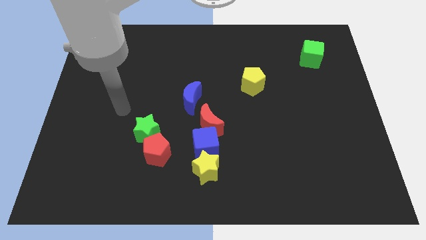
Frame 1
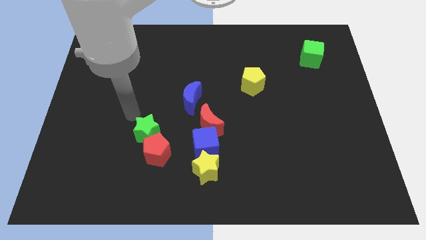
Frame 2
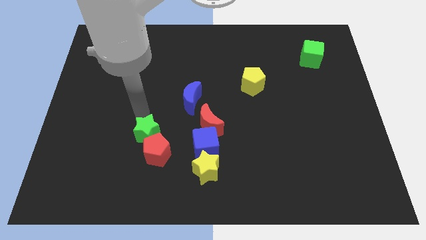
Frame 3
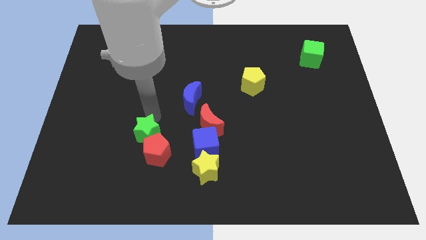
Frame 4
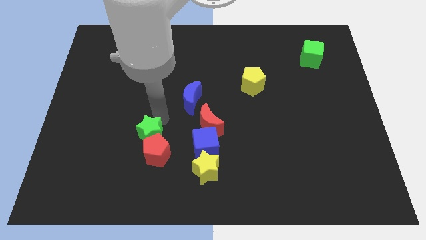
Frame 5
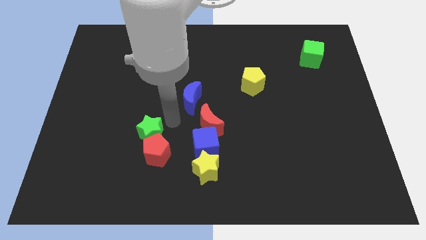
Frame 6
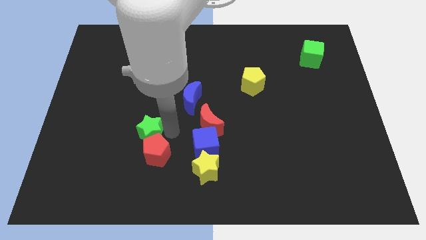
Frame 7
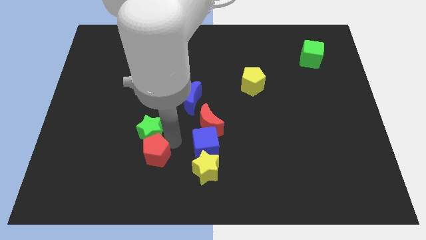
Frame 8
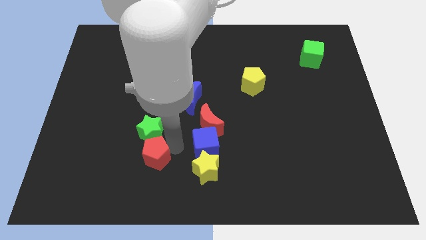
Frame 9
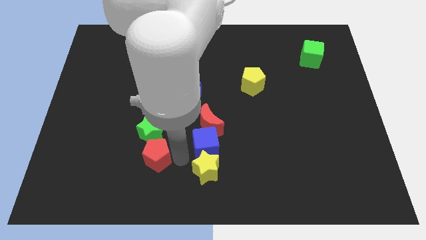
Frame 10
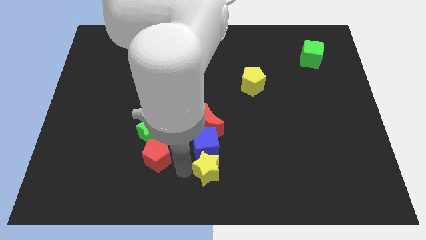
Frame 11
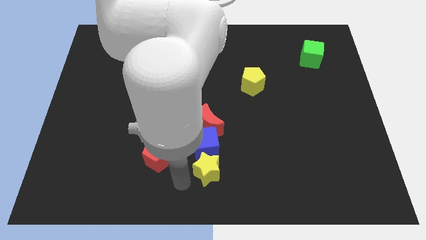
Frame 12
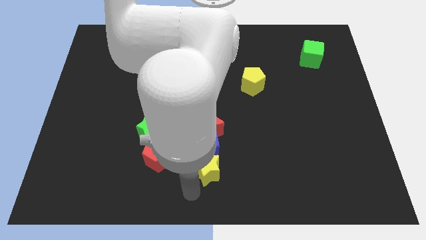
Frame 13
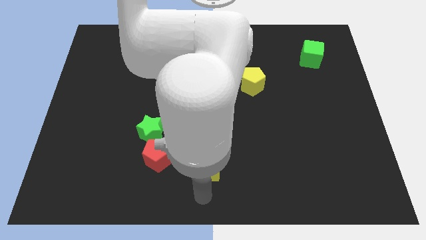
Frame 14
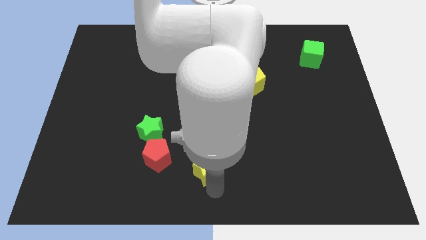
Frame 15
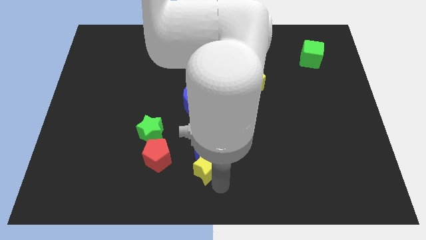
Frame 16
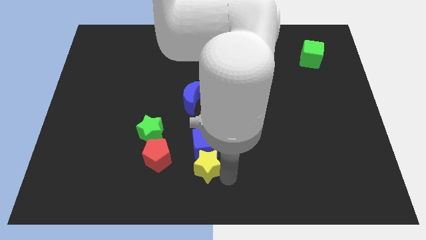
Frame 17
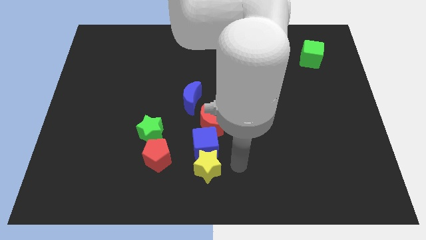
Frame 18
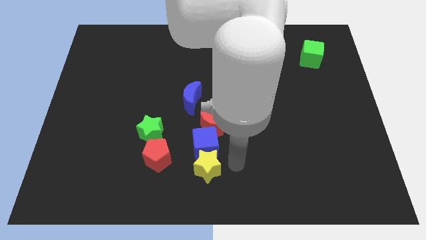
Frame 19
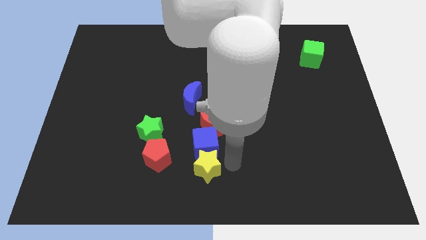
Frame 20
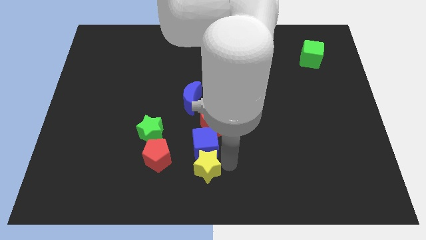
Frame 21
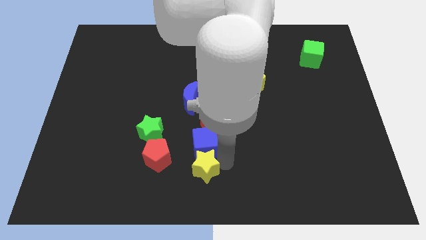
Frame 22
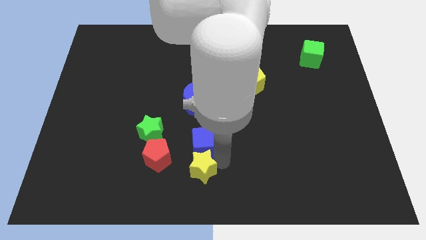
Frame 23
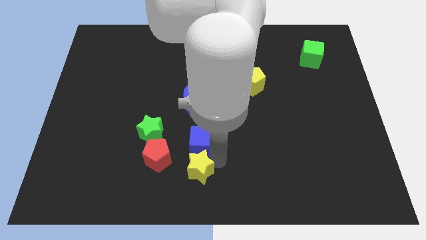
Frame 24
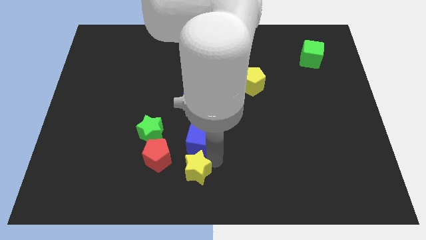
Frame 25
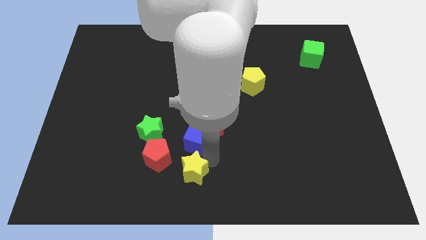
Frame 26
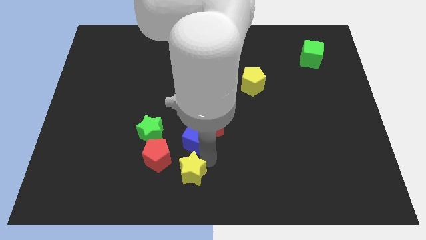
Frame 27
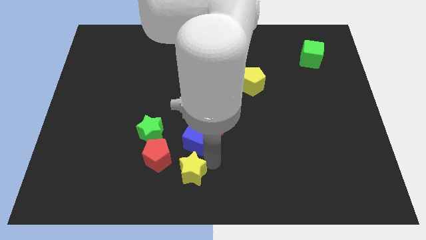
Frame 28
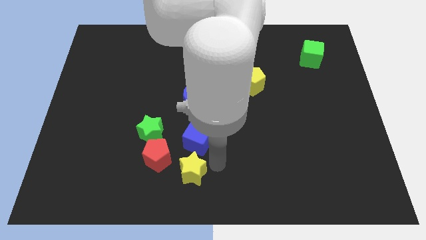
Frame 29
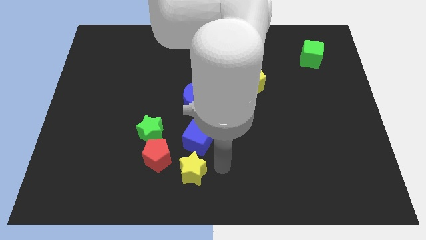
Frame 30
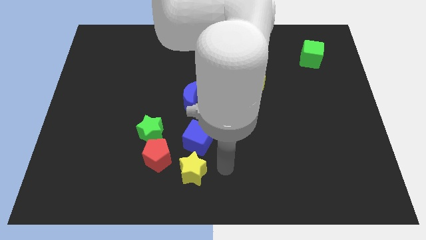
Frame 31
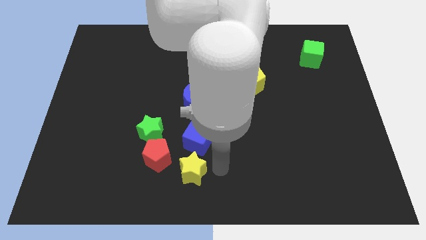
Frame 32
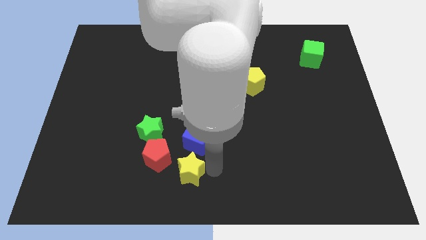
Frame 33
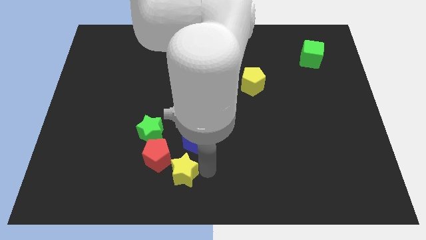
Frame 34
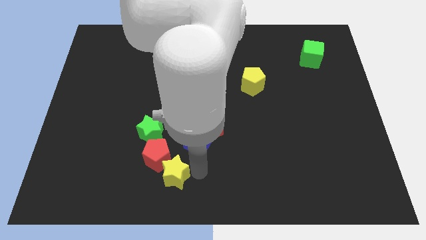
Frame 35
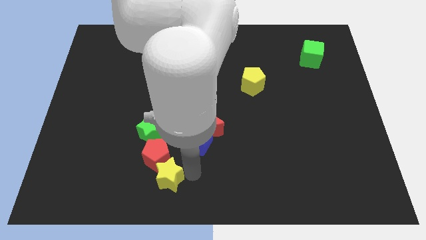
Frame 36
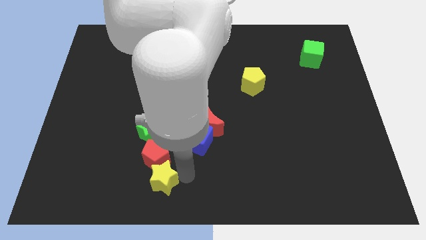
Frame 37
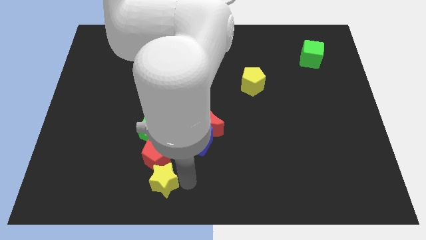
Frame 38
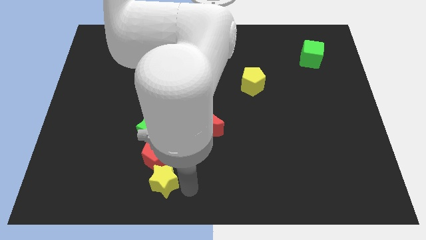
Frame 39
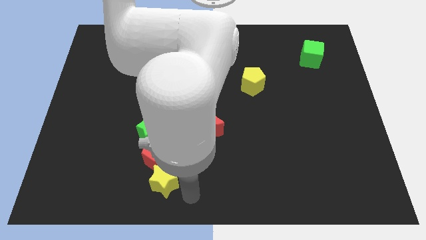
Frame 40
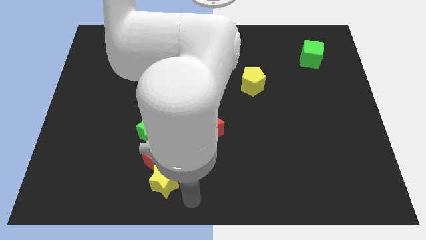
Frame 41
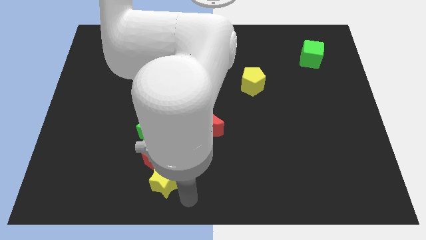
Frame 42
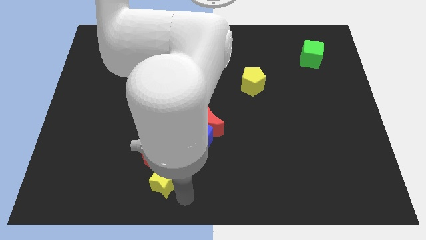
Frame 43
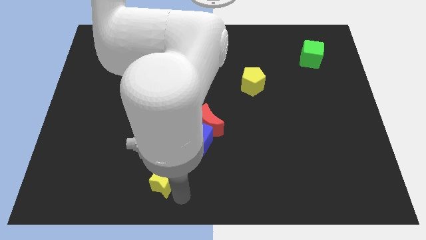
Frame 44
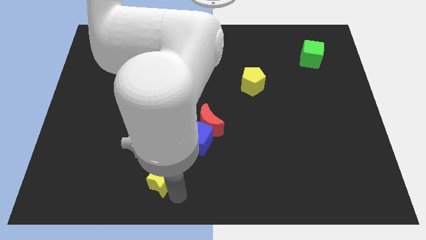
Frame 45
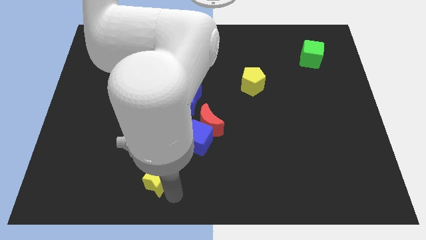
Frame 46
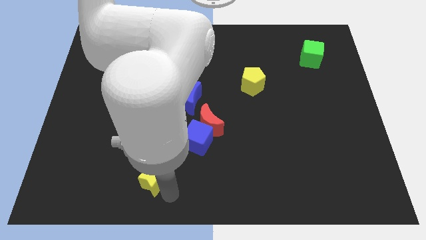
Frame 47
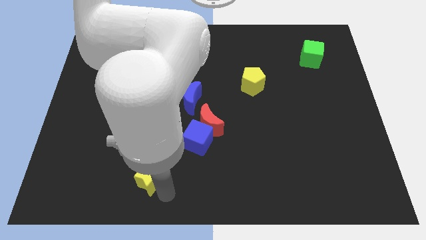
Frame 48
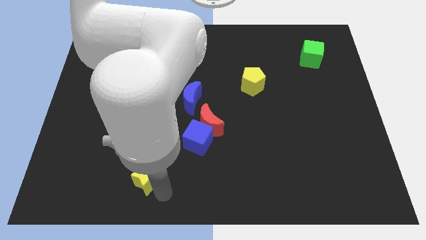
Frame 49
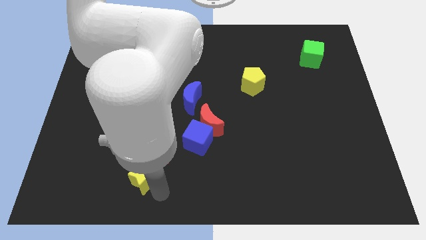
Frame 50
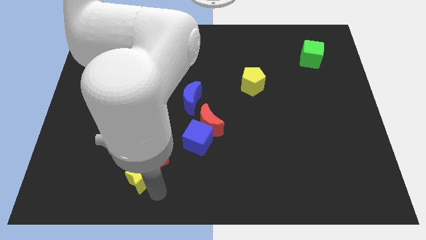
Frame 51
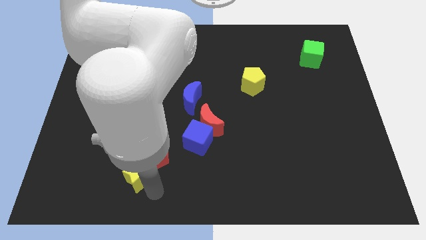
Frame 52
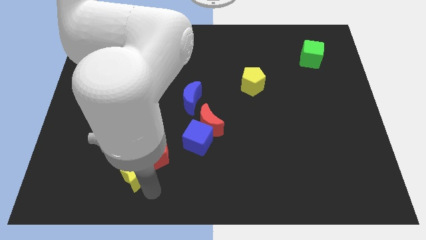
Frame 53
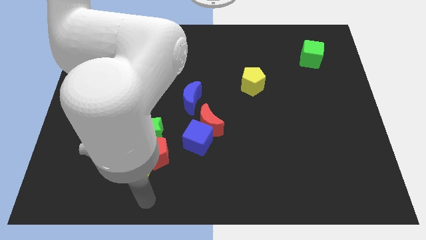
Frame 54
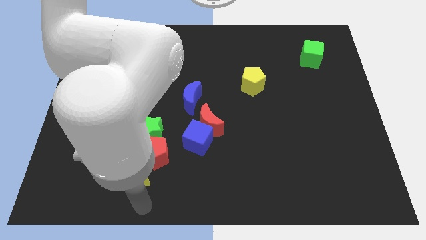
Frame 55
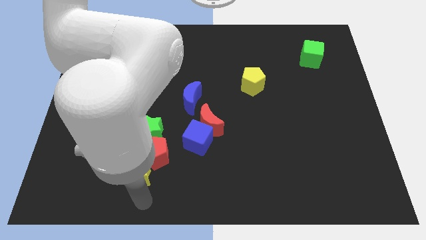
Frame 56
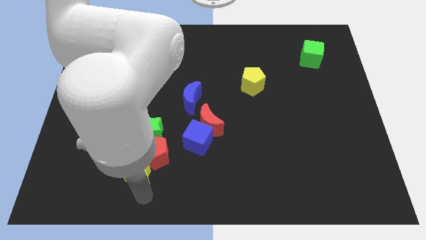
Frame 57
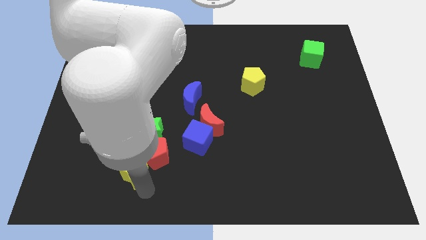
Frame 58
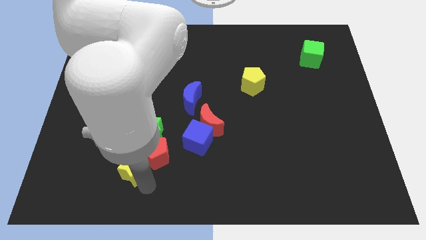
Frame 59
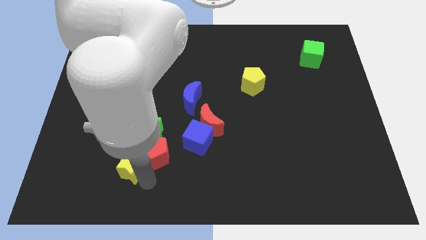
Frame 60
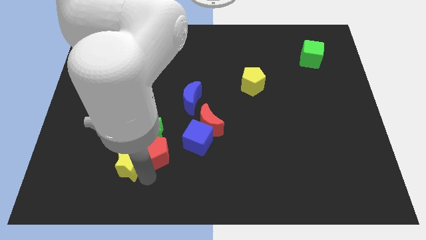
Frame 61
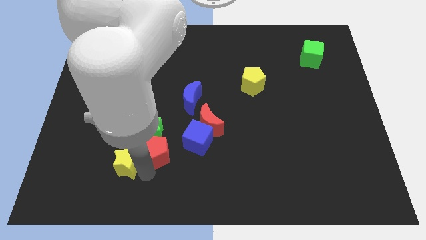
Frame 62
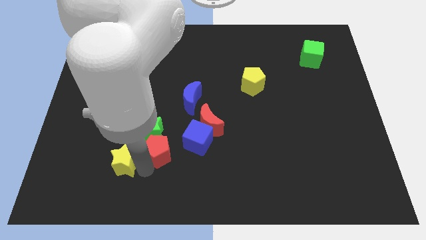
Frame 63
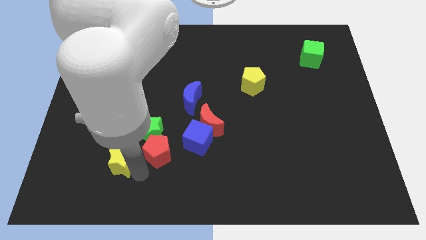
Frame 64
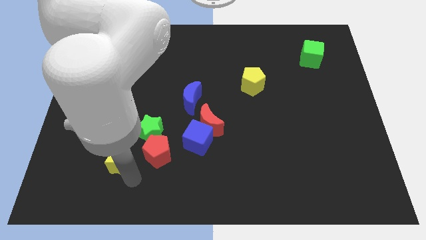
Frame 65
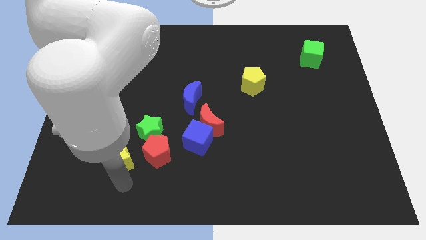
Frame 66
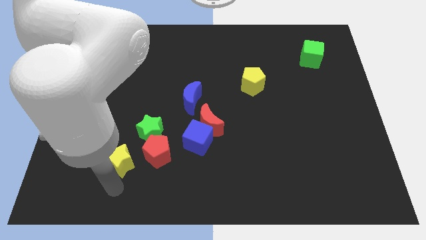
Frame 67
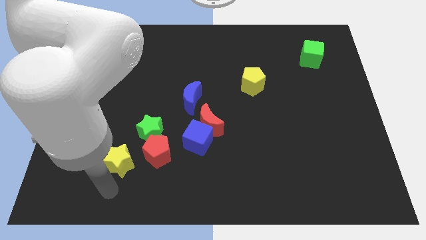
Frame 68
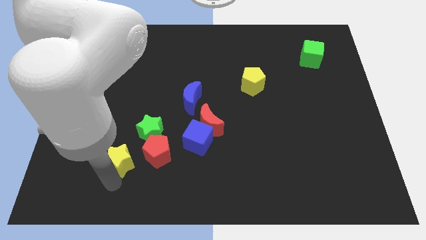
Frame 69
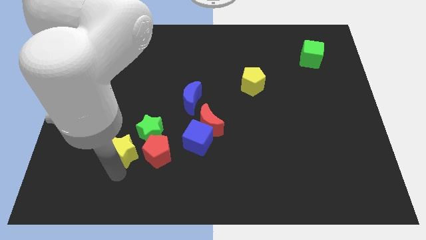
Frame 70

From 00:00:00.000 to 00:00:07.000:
put the yellow star diagonally up and to the left of the red pentagon
